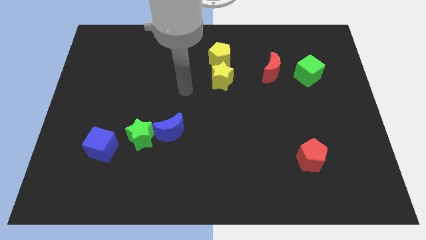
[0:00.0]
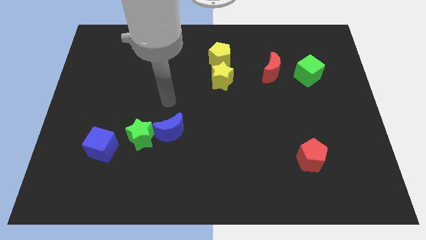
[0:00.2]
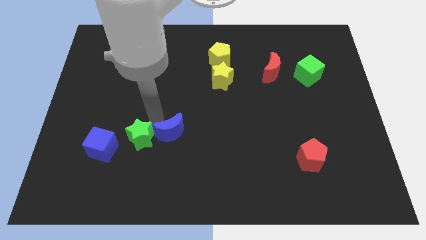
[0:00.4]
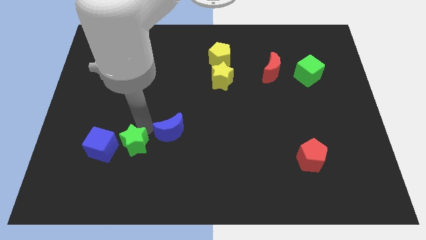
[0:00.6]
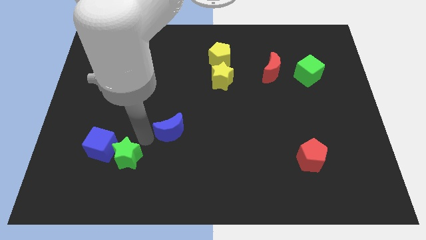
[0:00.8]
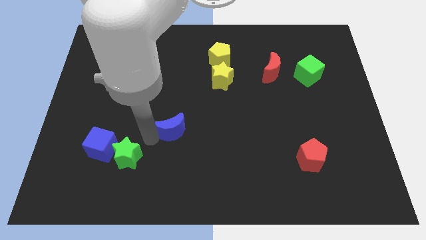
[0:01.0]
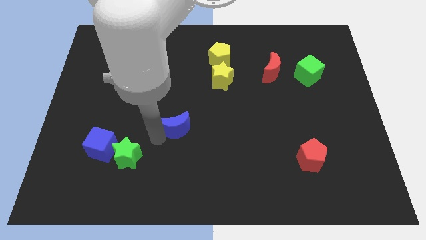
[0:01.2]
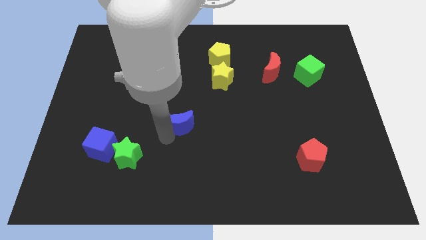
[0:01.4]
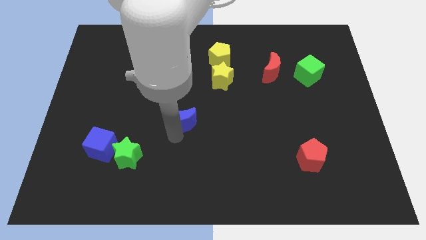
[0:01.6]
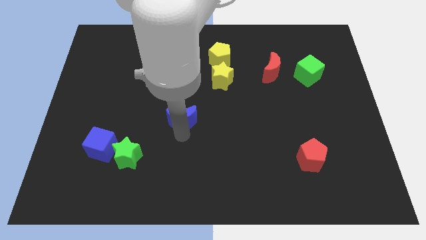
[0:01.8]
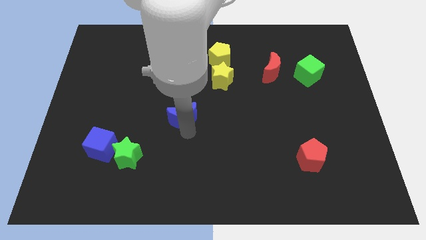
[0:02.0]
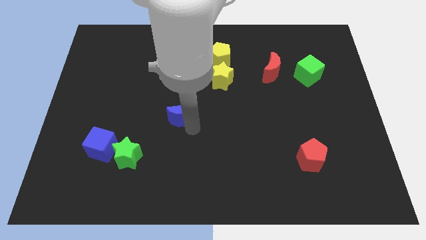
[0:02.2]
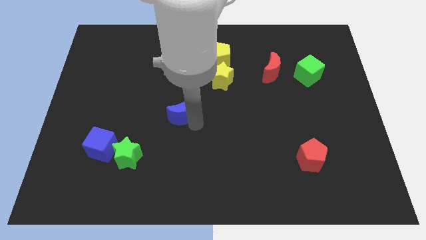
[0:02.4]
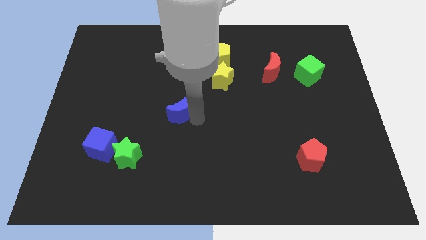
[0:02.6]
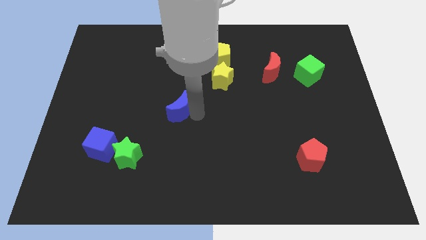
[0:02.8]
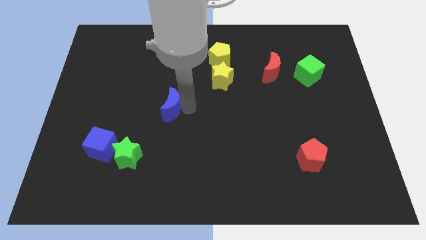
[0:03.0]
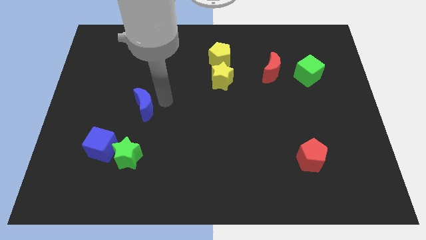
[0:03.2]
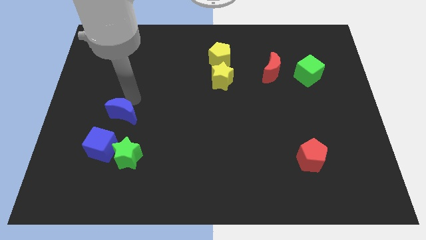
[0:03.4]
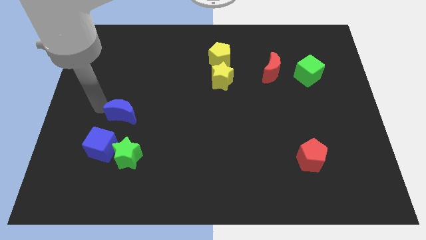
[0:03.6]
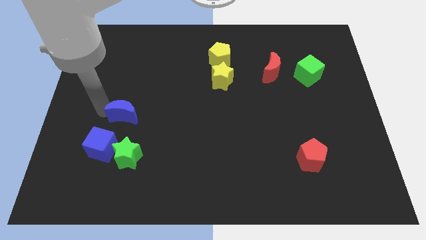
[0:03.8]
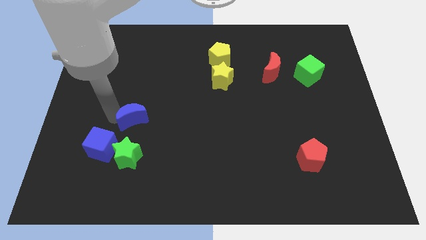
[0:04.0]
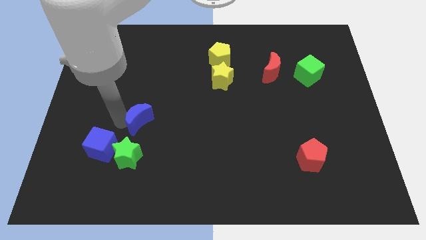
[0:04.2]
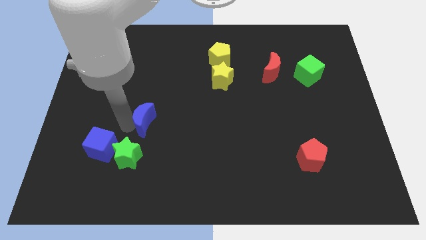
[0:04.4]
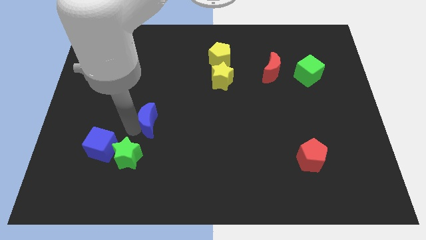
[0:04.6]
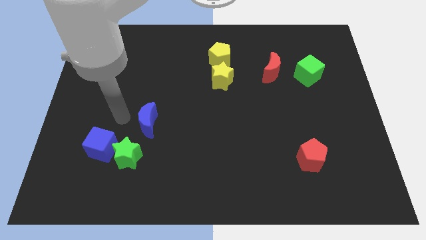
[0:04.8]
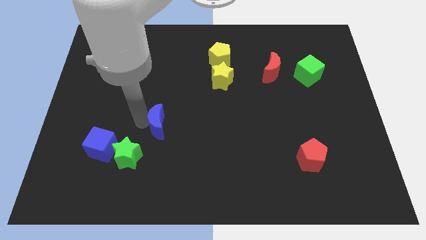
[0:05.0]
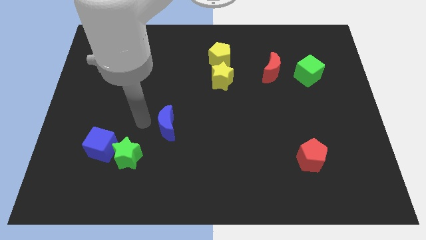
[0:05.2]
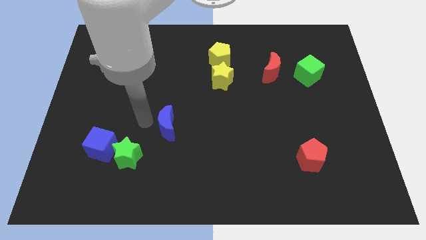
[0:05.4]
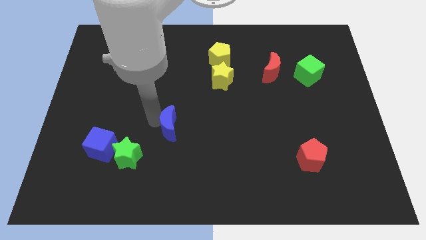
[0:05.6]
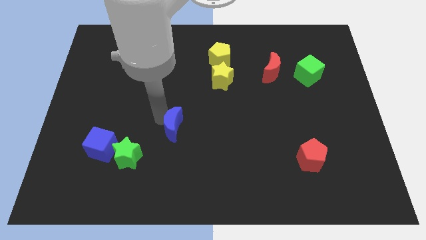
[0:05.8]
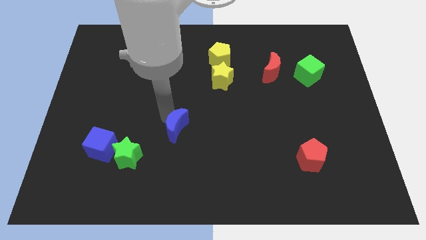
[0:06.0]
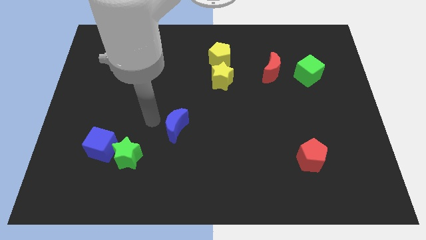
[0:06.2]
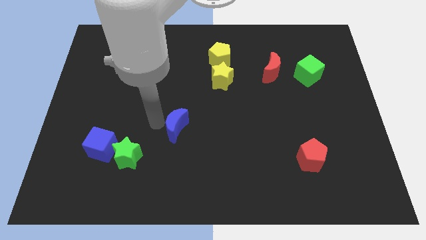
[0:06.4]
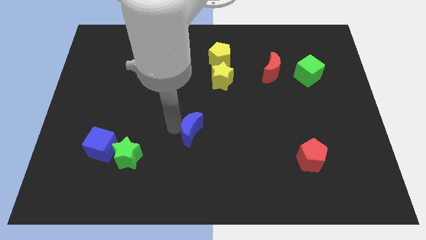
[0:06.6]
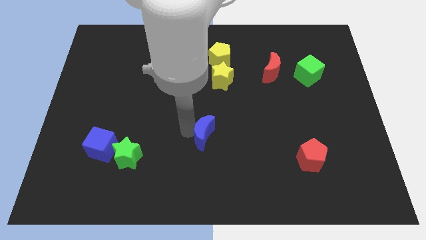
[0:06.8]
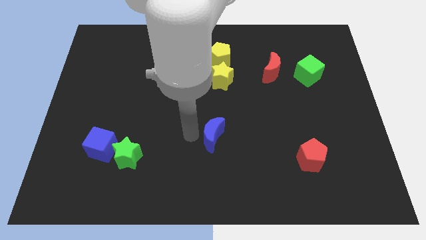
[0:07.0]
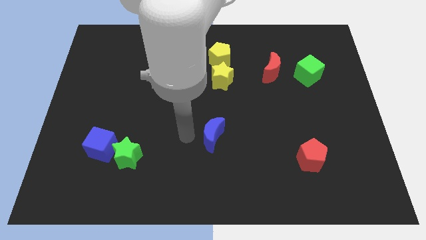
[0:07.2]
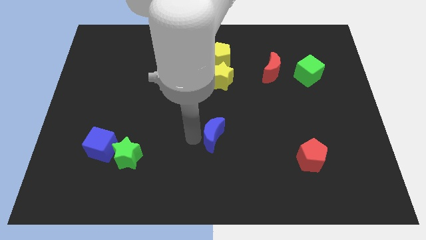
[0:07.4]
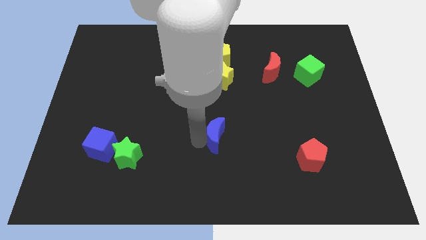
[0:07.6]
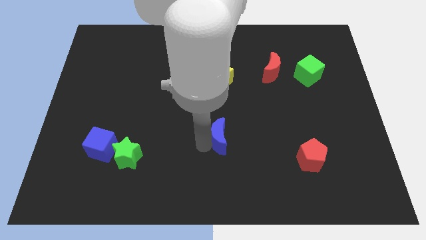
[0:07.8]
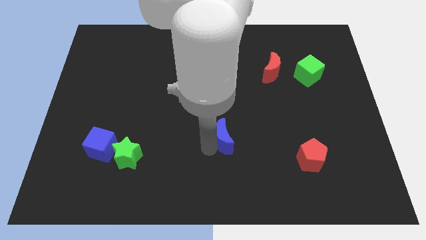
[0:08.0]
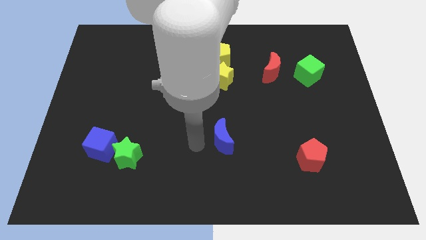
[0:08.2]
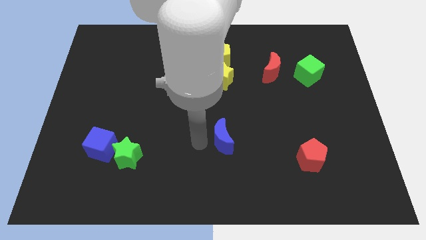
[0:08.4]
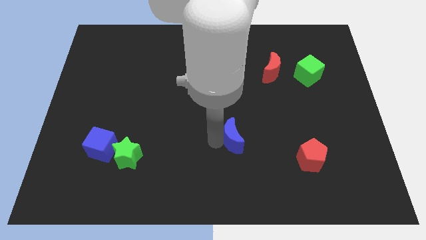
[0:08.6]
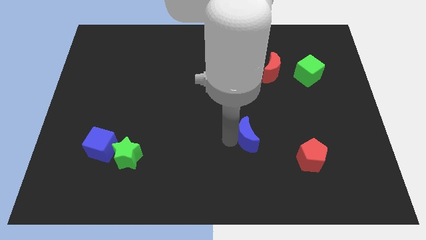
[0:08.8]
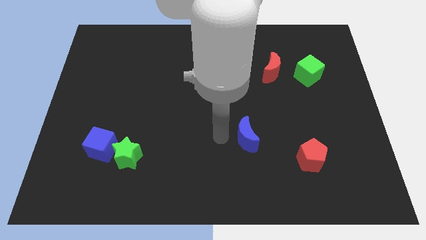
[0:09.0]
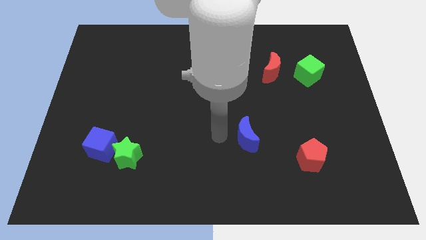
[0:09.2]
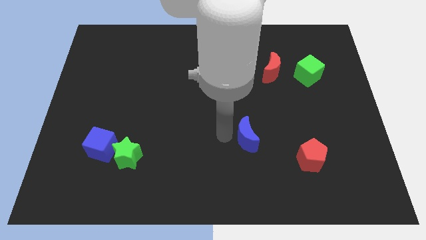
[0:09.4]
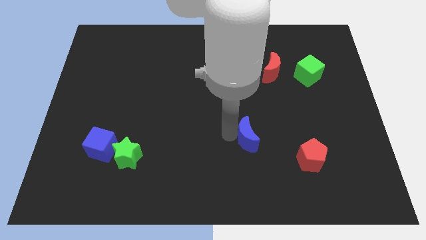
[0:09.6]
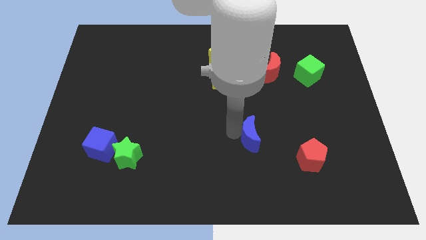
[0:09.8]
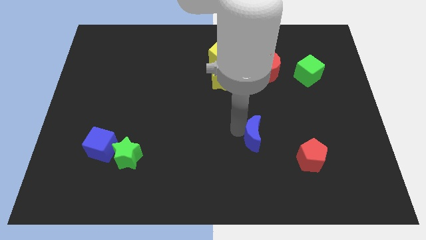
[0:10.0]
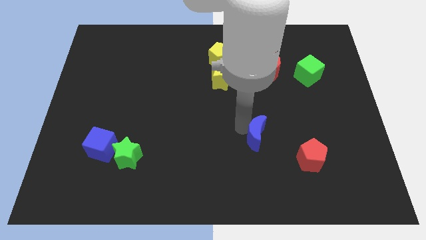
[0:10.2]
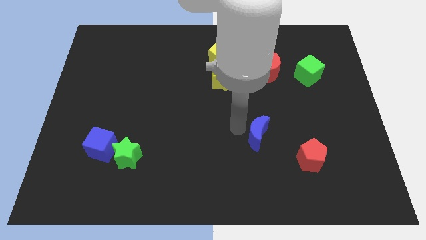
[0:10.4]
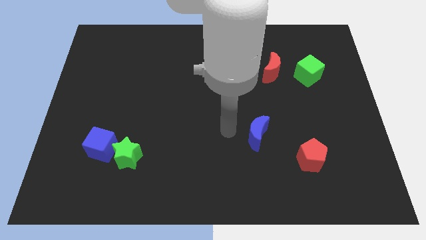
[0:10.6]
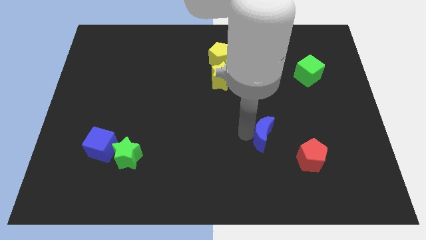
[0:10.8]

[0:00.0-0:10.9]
push the blue moon to the right

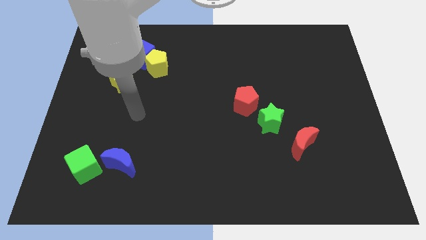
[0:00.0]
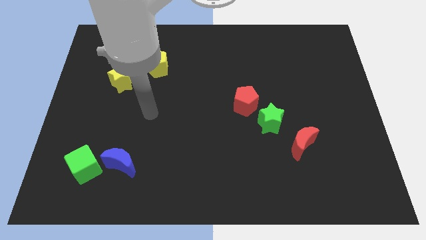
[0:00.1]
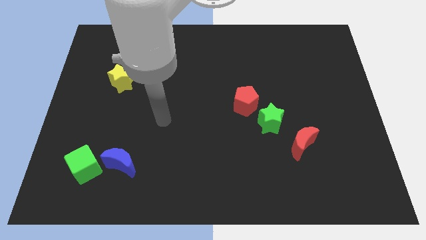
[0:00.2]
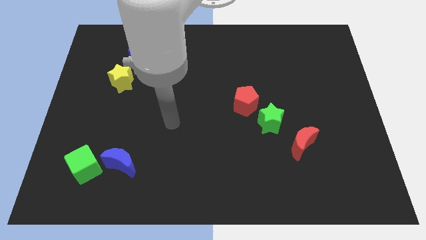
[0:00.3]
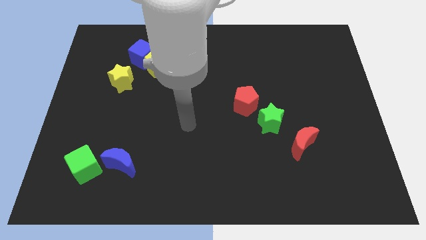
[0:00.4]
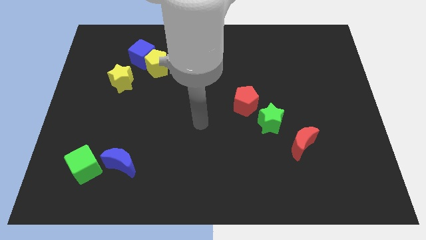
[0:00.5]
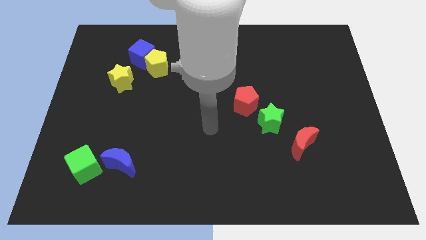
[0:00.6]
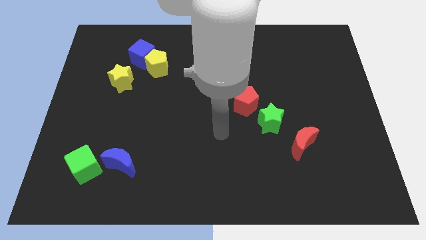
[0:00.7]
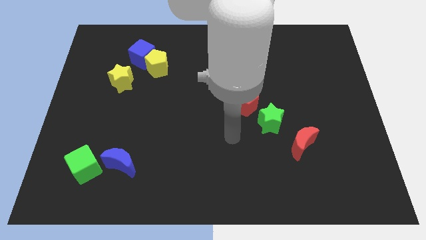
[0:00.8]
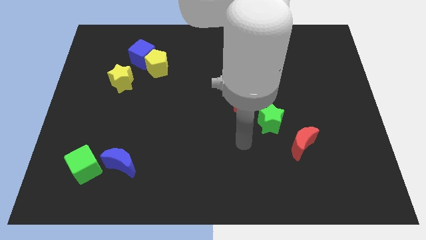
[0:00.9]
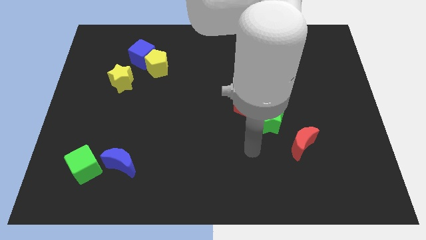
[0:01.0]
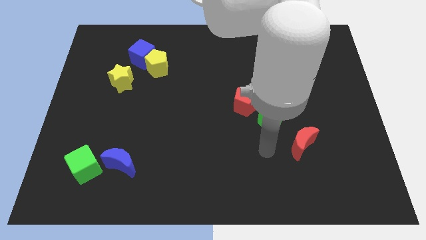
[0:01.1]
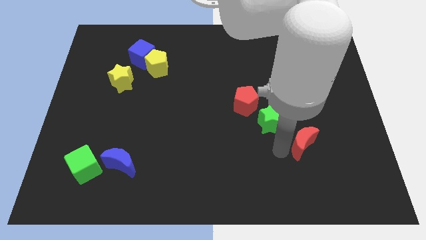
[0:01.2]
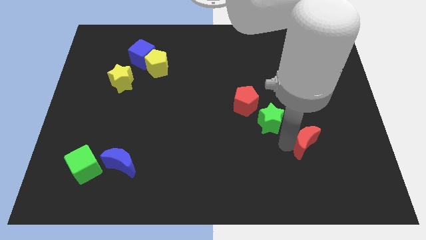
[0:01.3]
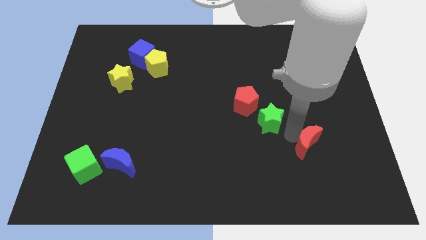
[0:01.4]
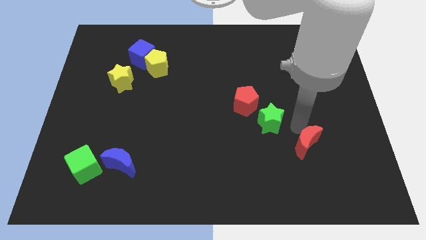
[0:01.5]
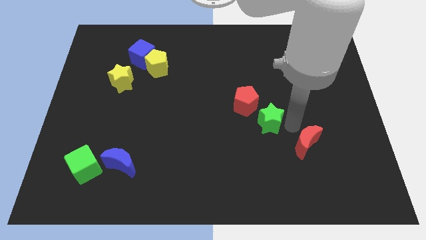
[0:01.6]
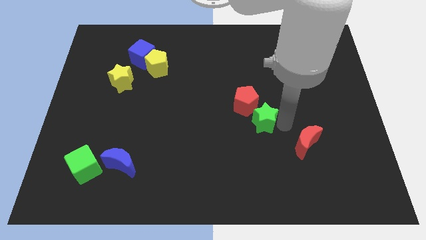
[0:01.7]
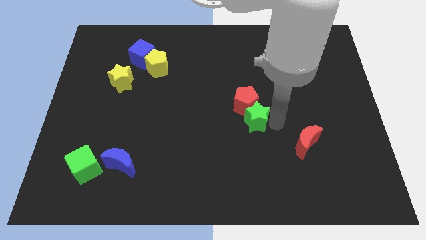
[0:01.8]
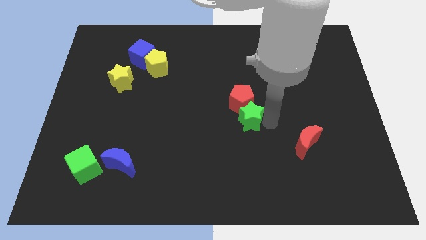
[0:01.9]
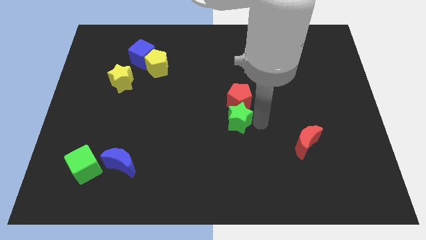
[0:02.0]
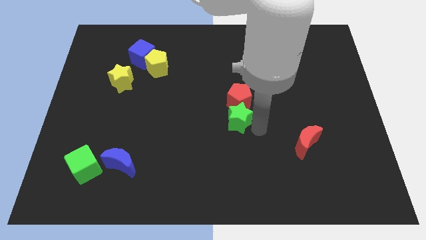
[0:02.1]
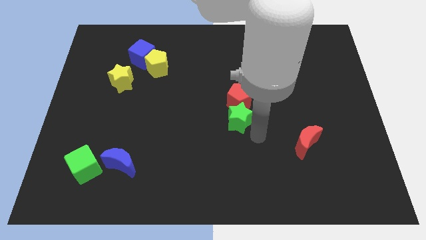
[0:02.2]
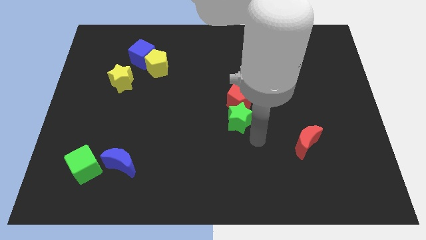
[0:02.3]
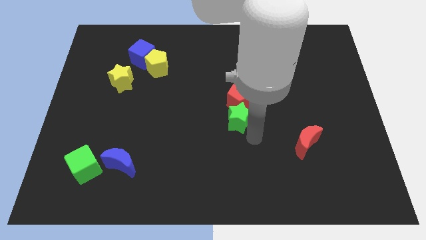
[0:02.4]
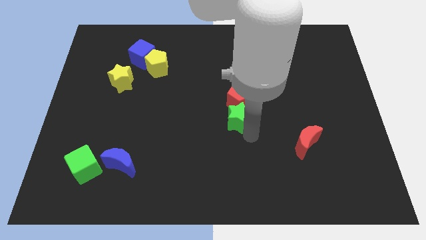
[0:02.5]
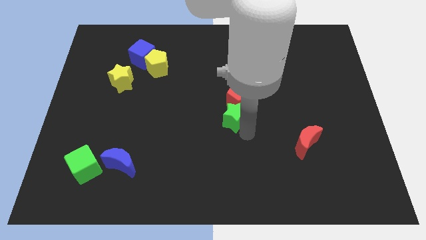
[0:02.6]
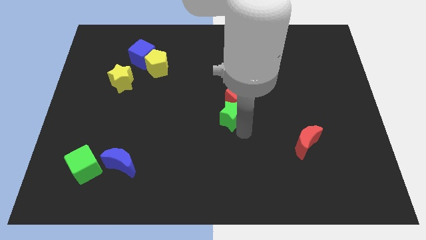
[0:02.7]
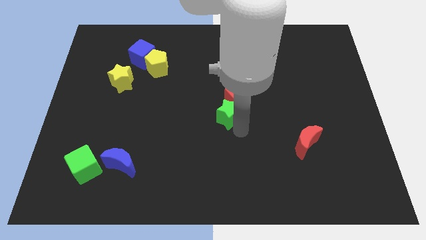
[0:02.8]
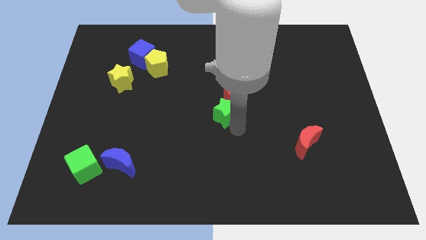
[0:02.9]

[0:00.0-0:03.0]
slide the green star slightly up and then to the left
